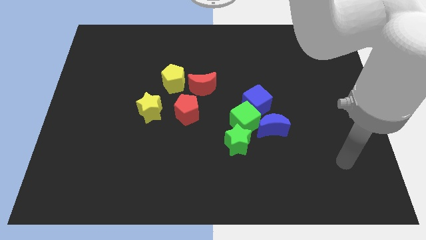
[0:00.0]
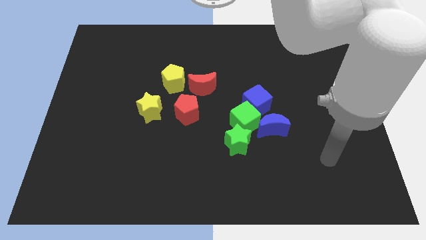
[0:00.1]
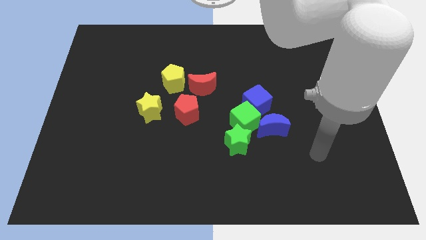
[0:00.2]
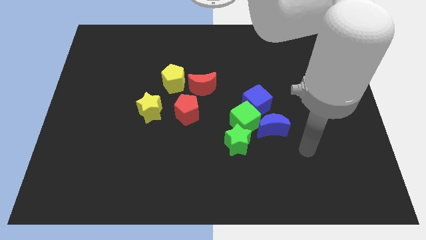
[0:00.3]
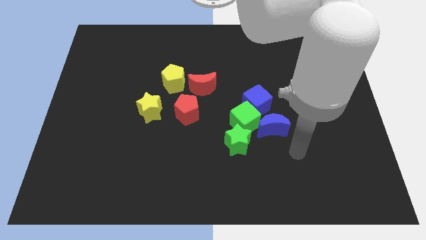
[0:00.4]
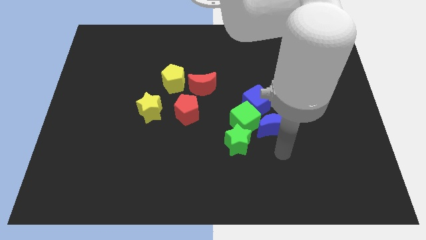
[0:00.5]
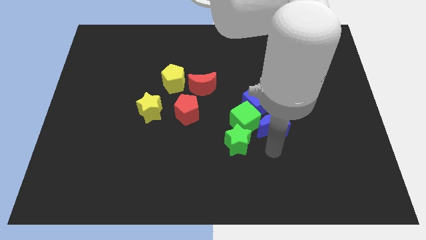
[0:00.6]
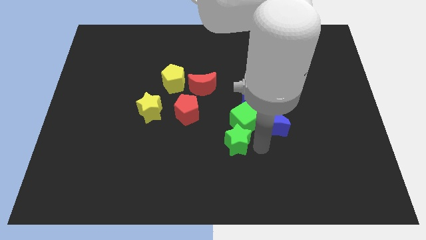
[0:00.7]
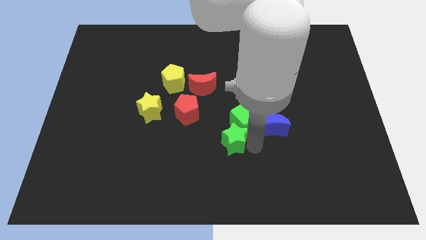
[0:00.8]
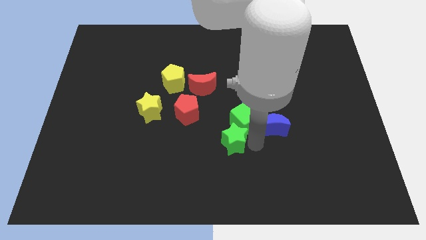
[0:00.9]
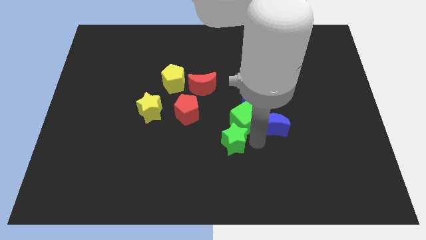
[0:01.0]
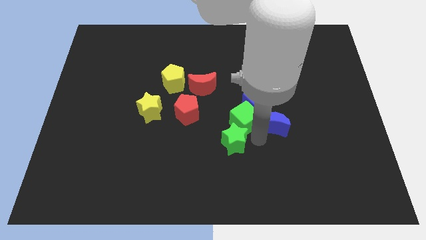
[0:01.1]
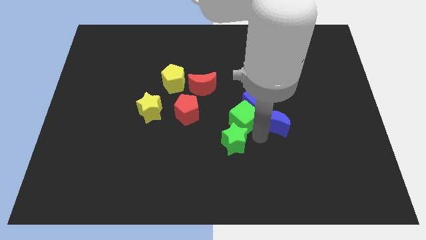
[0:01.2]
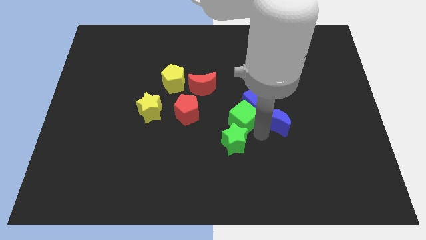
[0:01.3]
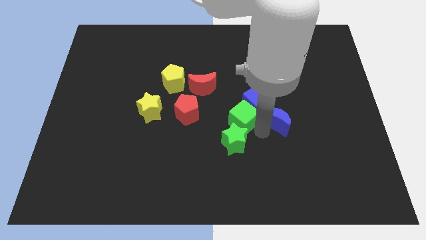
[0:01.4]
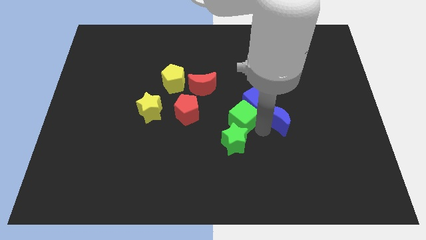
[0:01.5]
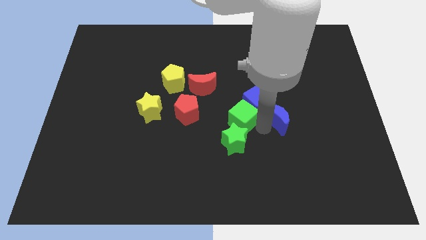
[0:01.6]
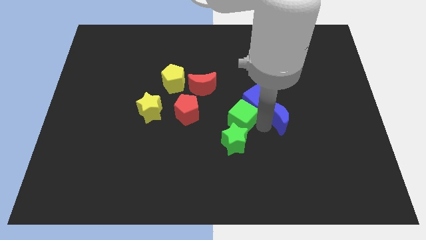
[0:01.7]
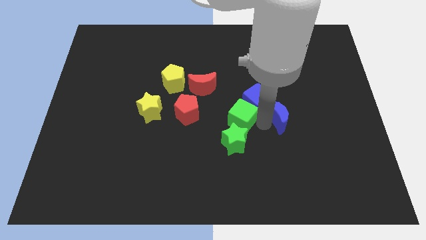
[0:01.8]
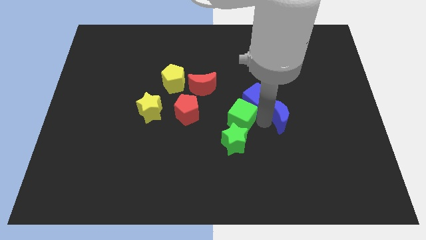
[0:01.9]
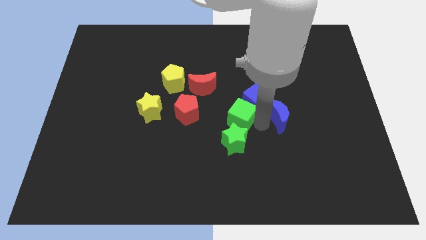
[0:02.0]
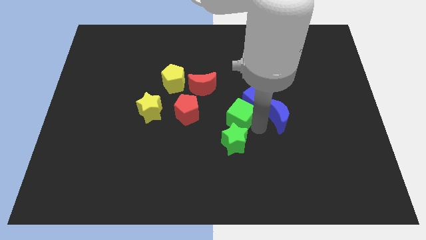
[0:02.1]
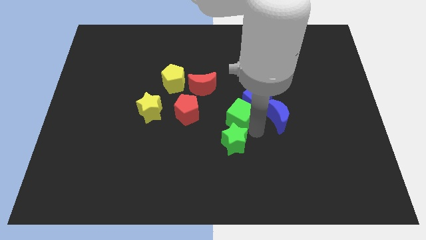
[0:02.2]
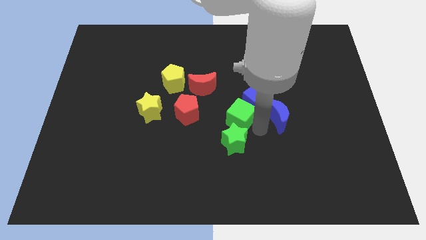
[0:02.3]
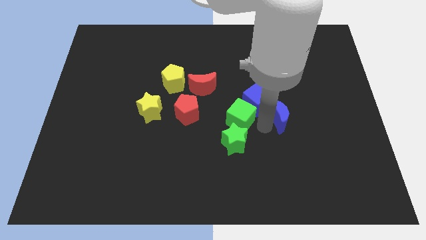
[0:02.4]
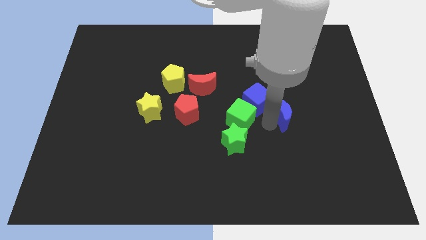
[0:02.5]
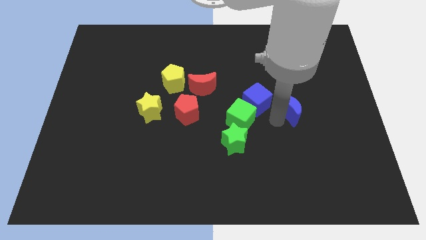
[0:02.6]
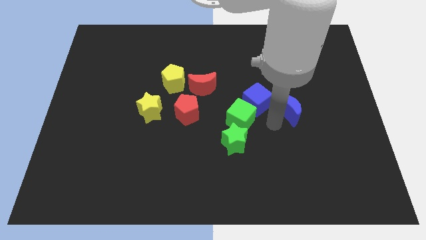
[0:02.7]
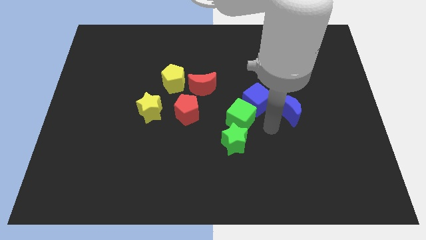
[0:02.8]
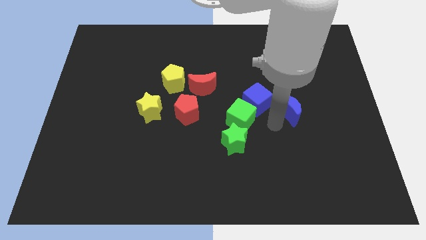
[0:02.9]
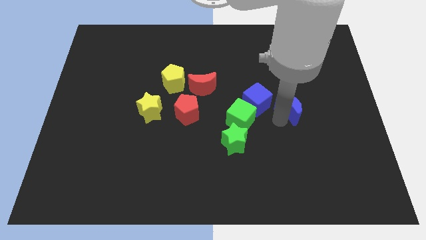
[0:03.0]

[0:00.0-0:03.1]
slightly move the blue moon diagonally upwards and to the right

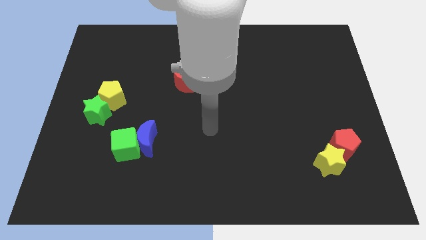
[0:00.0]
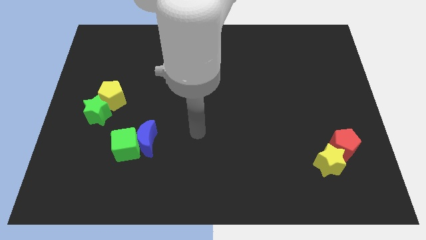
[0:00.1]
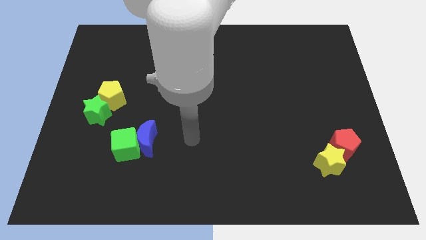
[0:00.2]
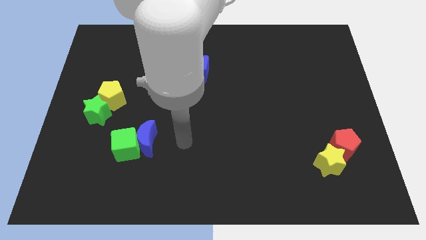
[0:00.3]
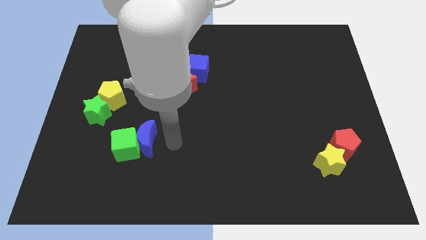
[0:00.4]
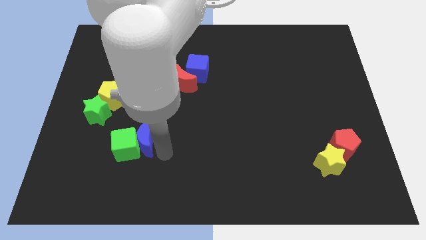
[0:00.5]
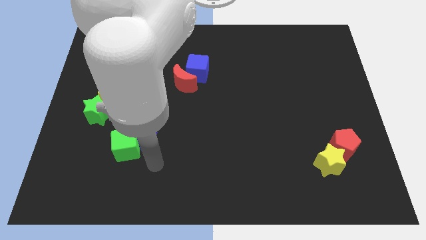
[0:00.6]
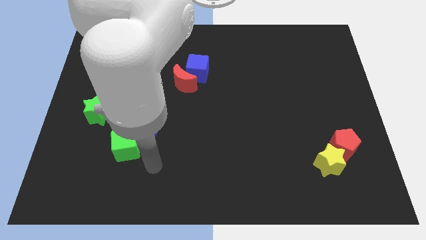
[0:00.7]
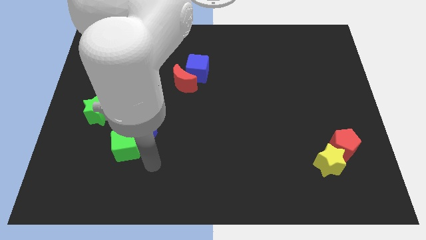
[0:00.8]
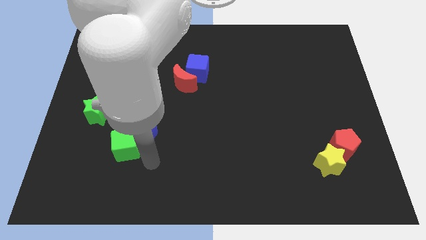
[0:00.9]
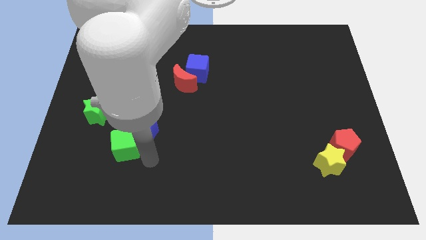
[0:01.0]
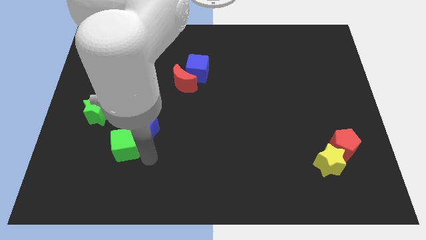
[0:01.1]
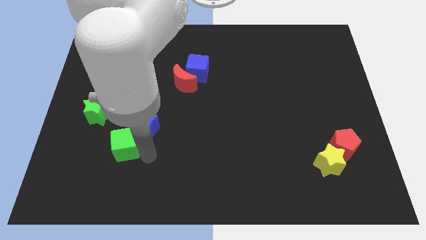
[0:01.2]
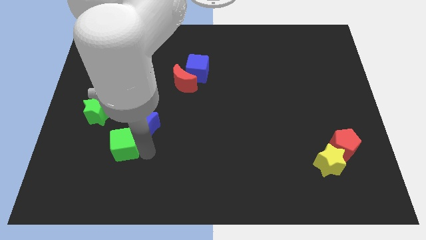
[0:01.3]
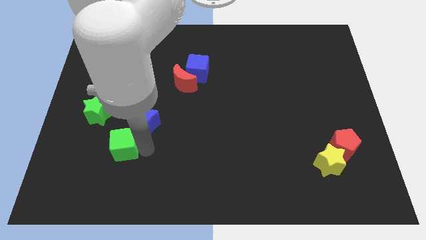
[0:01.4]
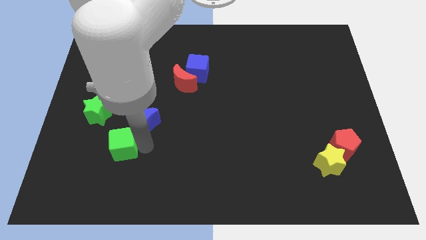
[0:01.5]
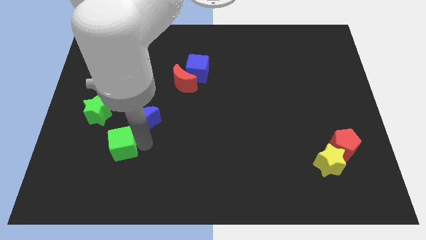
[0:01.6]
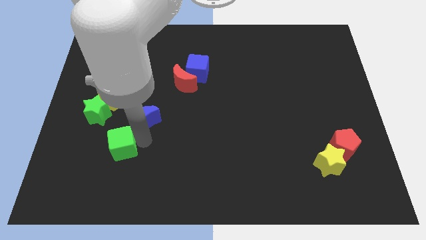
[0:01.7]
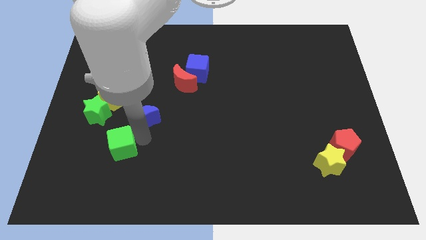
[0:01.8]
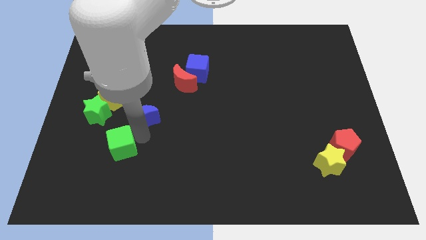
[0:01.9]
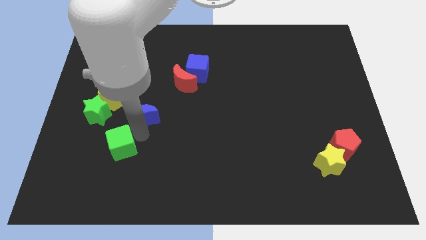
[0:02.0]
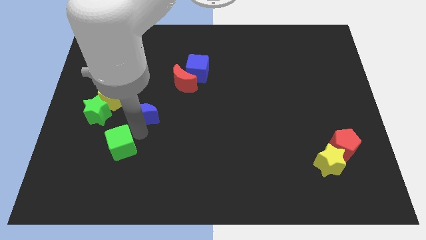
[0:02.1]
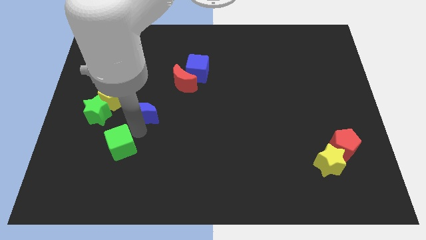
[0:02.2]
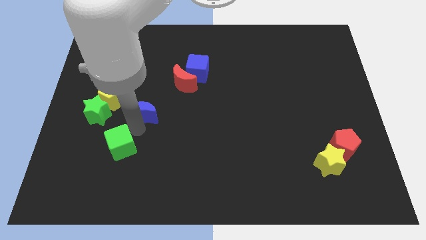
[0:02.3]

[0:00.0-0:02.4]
slide the blue moon a bit upwards

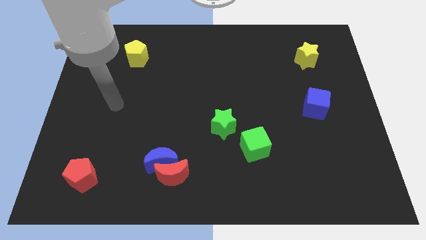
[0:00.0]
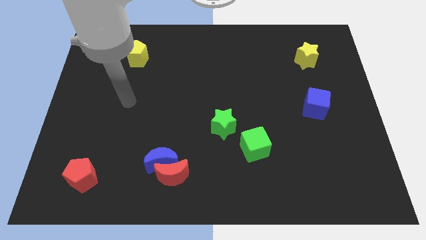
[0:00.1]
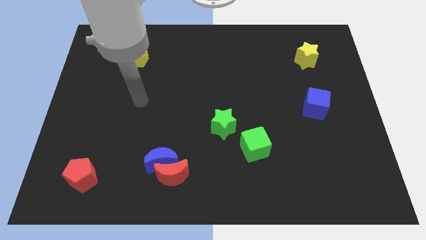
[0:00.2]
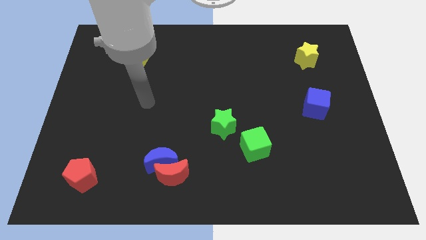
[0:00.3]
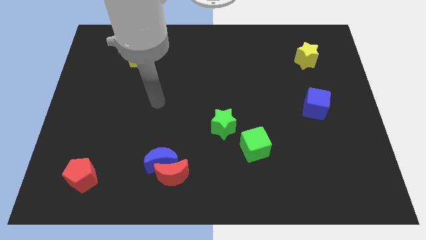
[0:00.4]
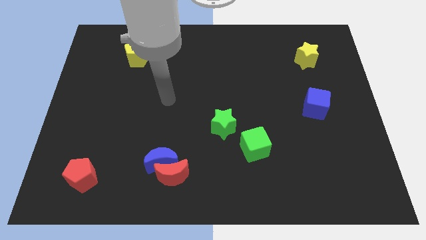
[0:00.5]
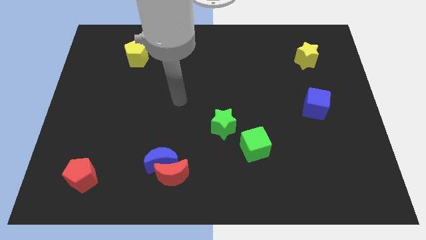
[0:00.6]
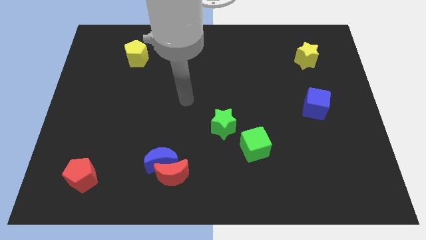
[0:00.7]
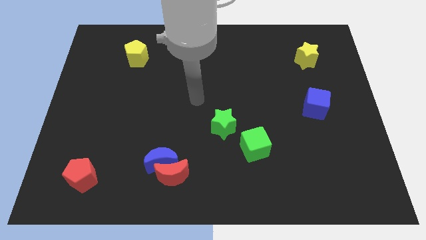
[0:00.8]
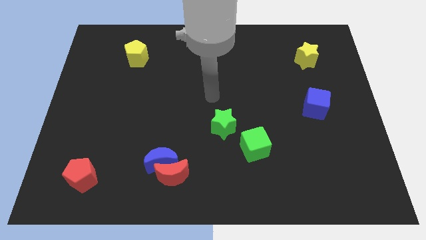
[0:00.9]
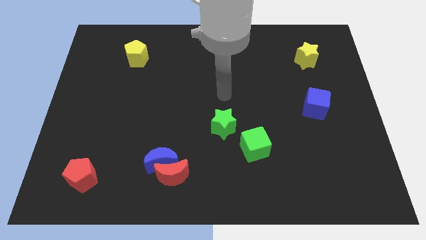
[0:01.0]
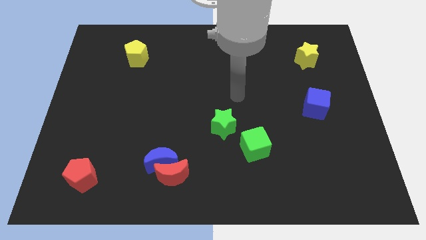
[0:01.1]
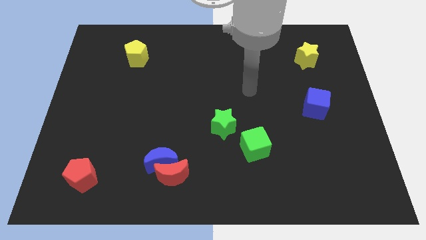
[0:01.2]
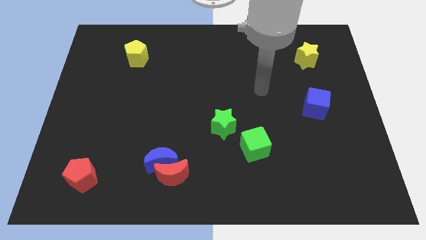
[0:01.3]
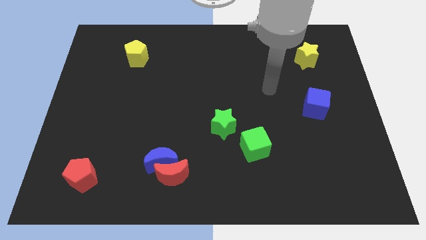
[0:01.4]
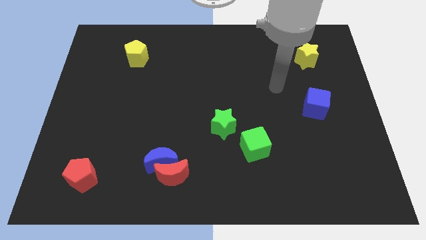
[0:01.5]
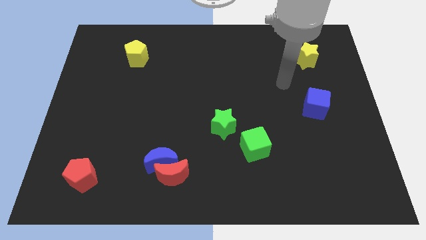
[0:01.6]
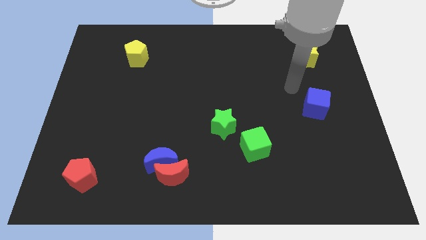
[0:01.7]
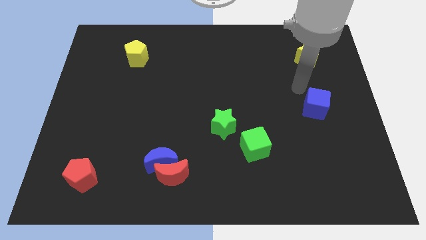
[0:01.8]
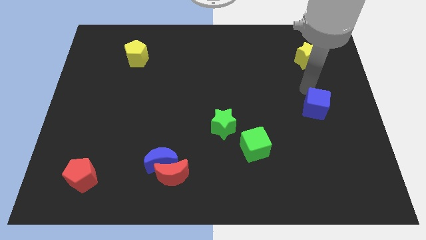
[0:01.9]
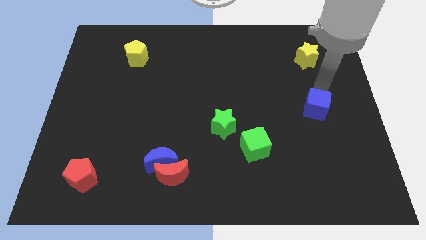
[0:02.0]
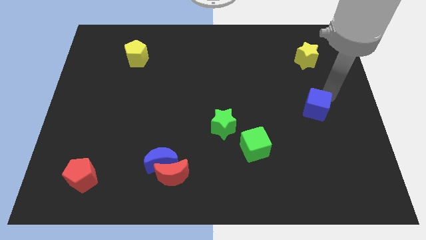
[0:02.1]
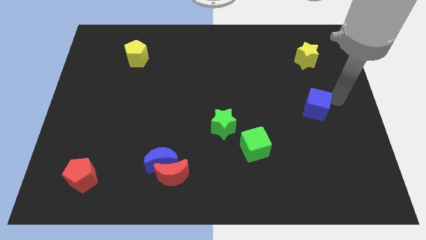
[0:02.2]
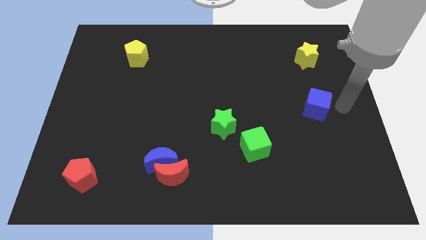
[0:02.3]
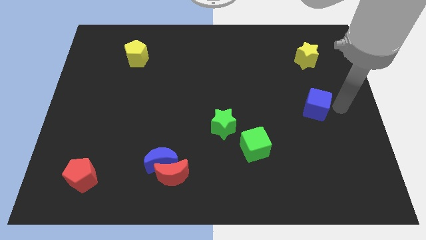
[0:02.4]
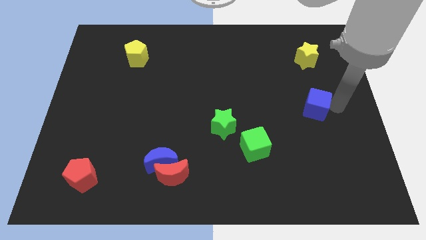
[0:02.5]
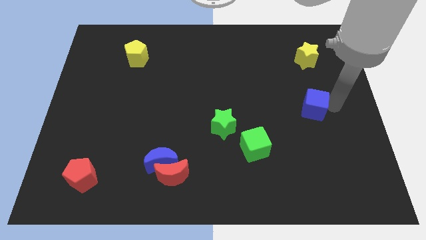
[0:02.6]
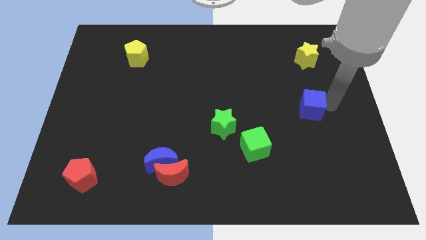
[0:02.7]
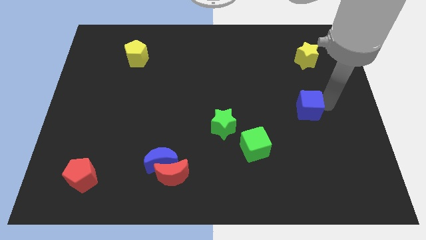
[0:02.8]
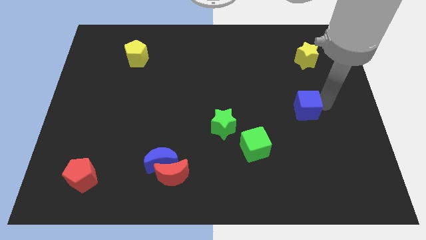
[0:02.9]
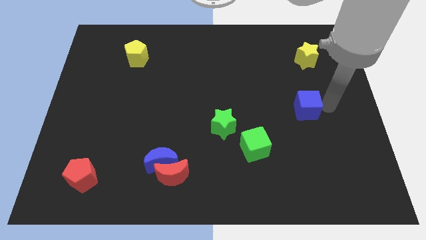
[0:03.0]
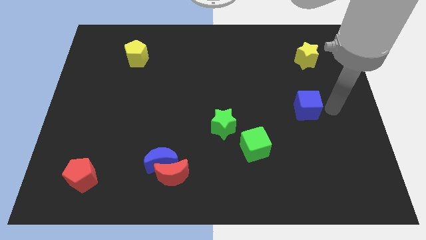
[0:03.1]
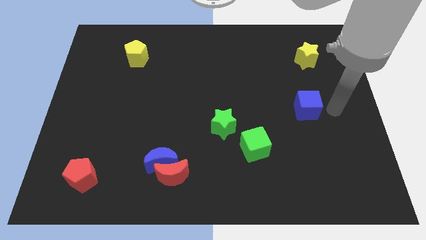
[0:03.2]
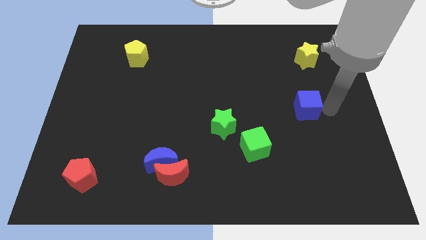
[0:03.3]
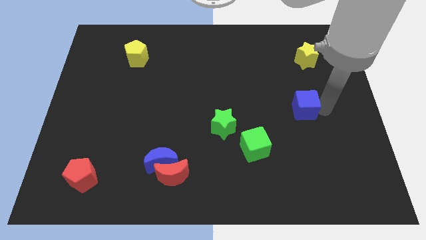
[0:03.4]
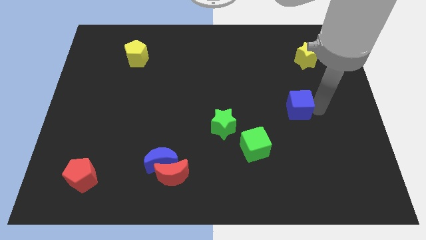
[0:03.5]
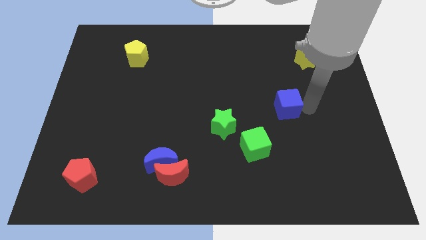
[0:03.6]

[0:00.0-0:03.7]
push the blue cube left somewhat
